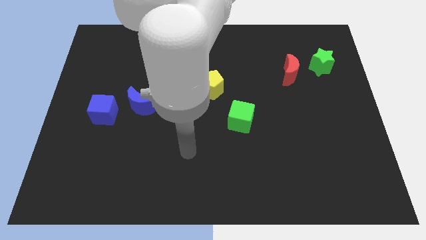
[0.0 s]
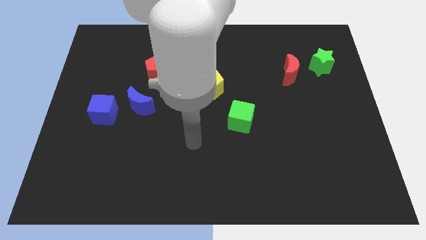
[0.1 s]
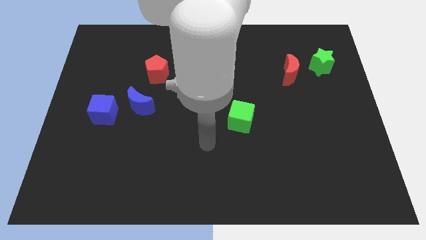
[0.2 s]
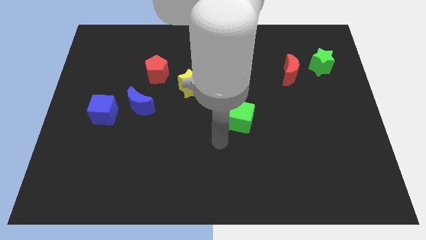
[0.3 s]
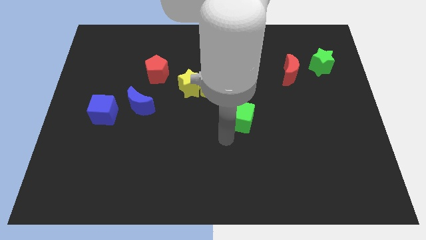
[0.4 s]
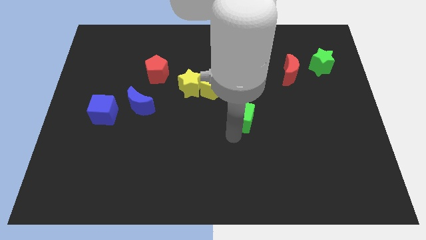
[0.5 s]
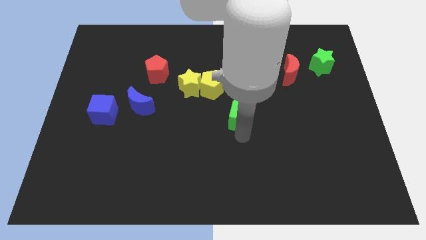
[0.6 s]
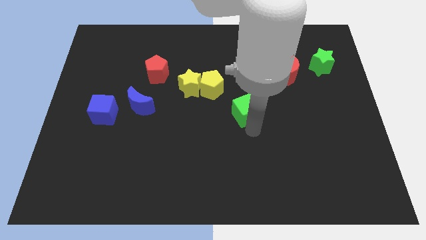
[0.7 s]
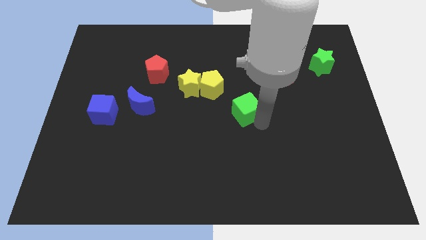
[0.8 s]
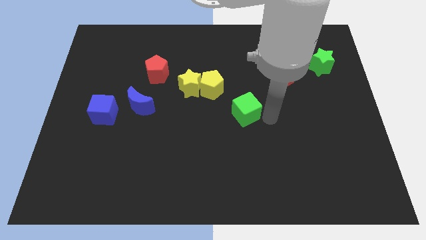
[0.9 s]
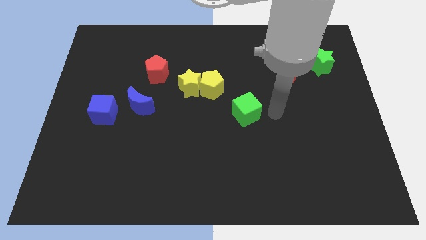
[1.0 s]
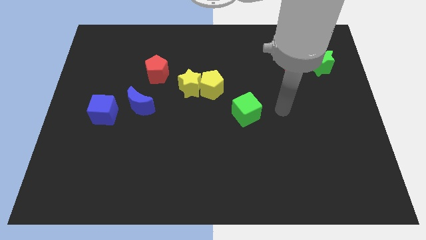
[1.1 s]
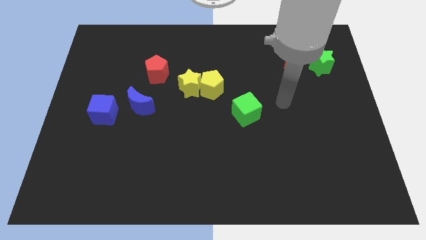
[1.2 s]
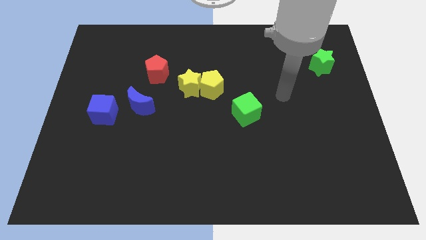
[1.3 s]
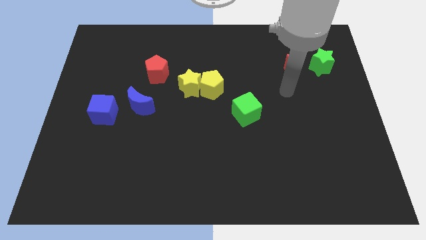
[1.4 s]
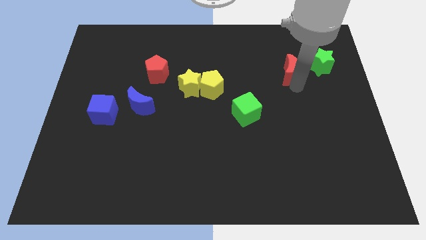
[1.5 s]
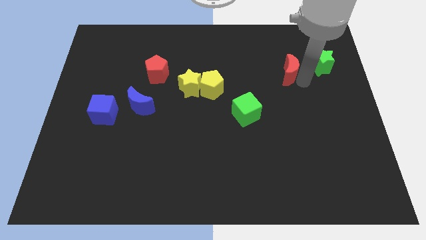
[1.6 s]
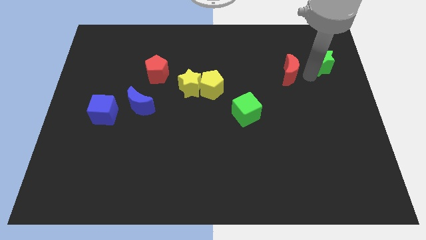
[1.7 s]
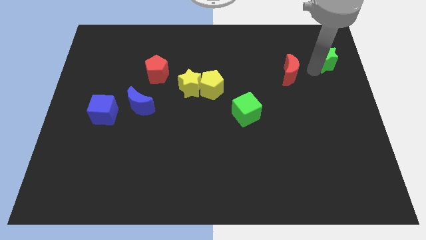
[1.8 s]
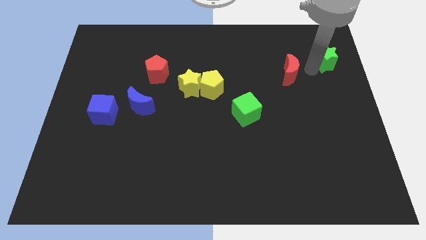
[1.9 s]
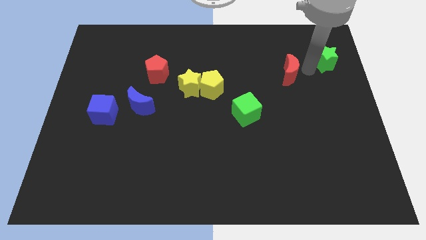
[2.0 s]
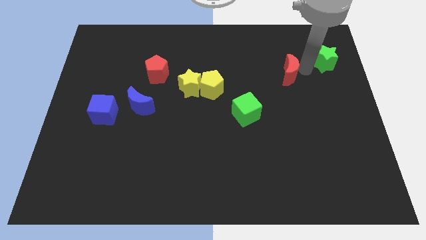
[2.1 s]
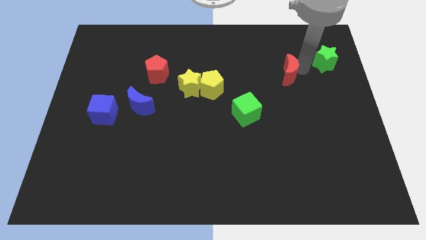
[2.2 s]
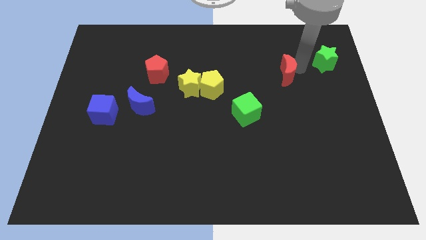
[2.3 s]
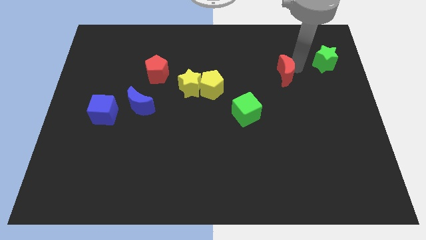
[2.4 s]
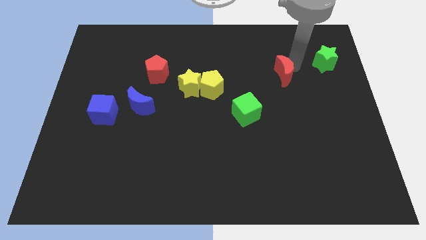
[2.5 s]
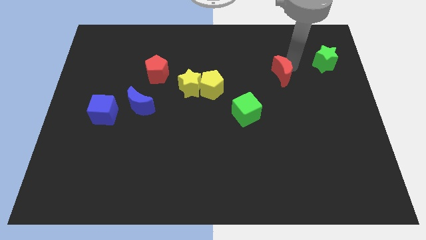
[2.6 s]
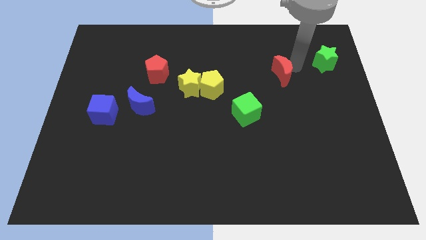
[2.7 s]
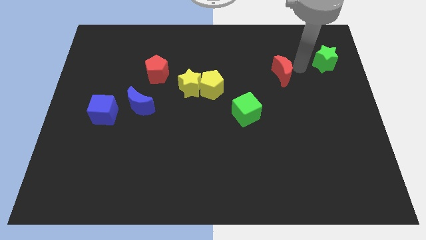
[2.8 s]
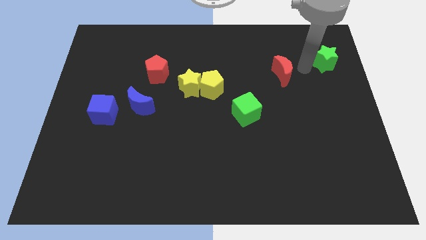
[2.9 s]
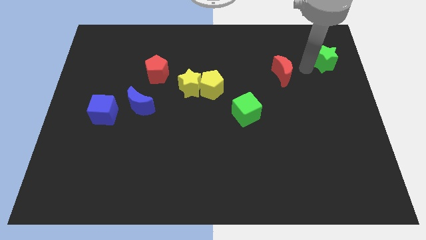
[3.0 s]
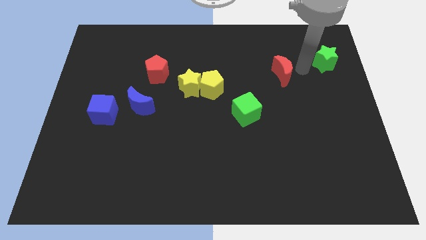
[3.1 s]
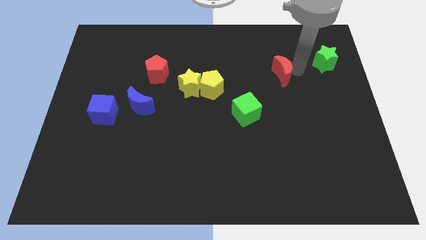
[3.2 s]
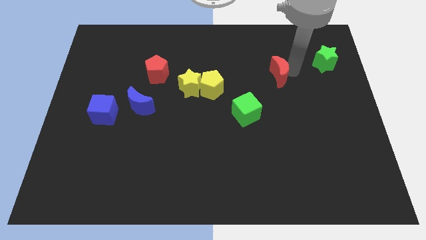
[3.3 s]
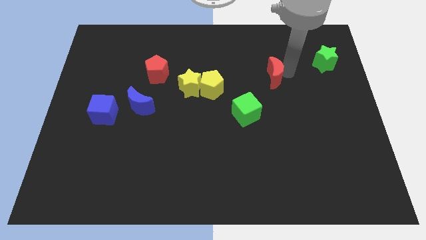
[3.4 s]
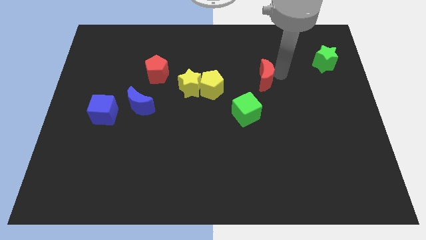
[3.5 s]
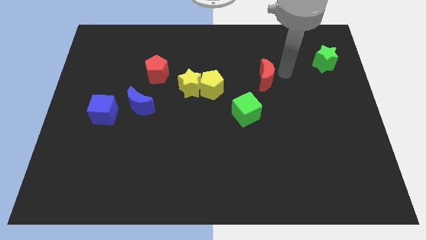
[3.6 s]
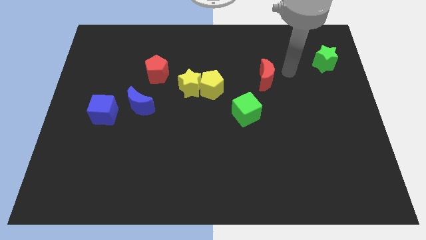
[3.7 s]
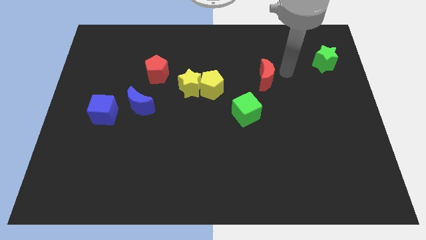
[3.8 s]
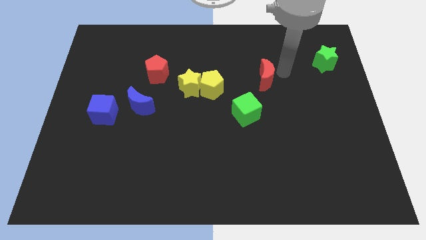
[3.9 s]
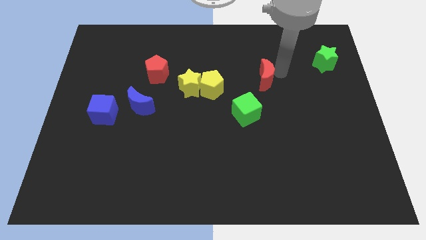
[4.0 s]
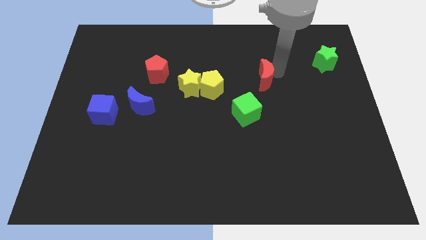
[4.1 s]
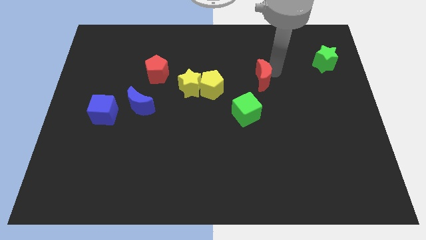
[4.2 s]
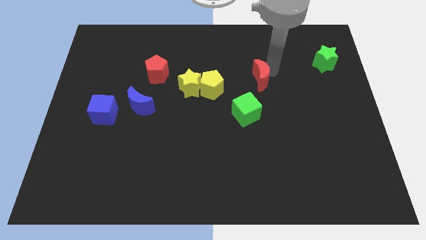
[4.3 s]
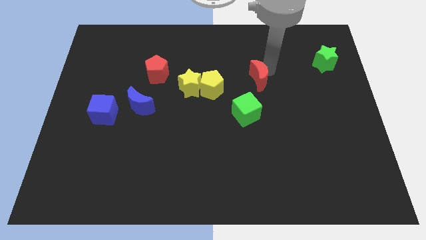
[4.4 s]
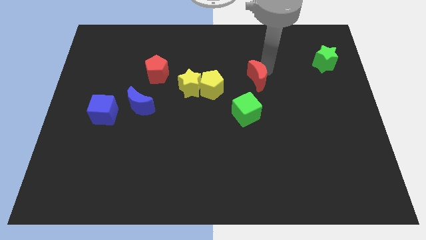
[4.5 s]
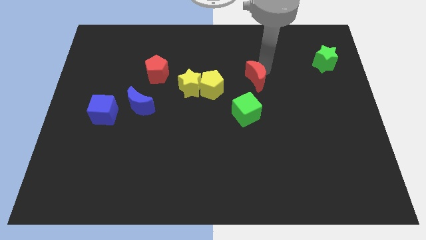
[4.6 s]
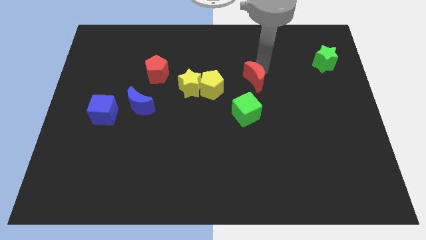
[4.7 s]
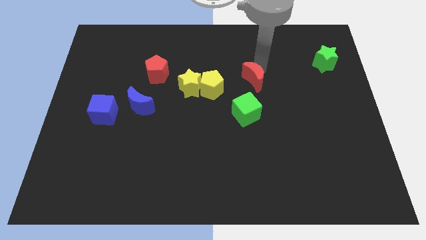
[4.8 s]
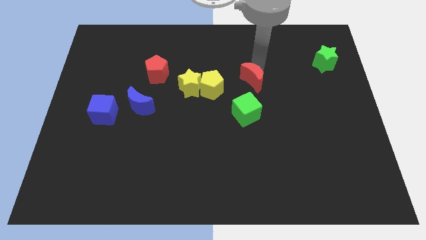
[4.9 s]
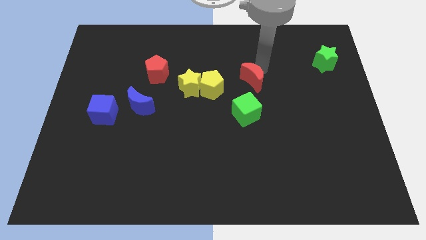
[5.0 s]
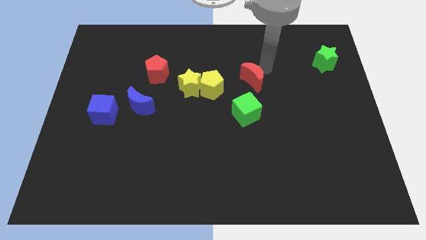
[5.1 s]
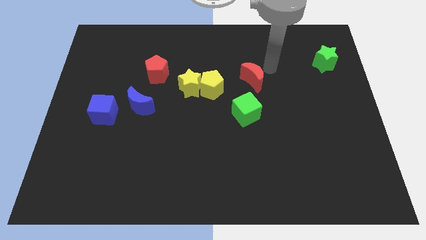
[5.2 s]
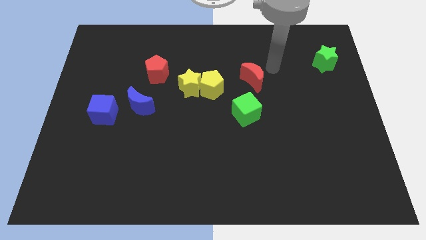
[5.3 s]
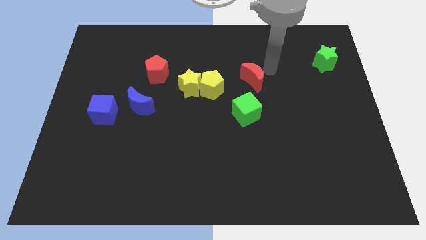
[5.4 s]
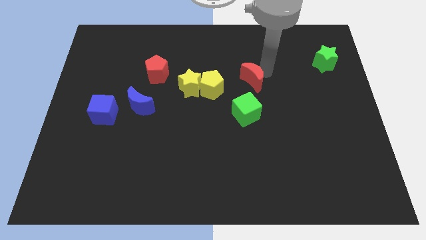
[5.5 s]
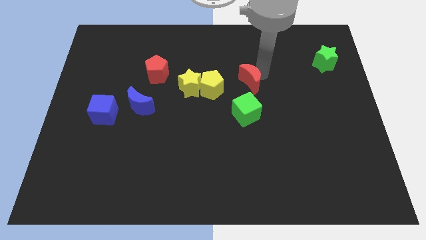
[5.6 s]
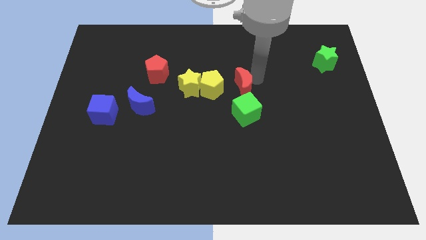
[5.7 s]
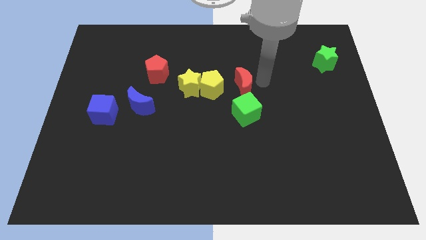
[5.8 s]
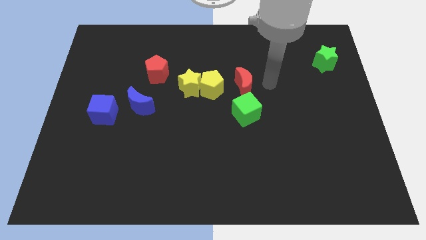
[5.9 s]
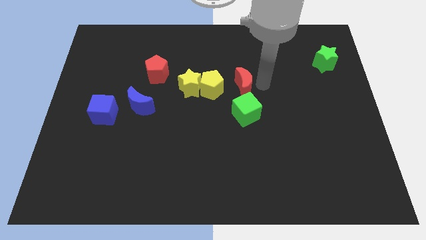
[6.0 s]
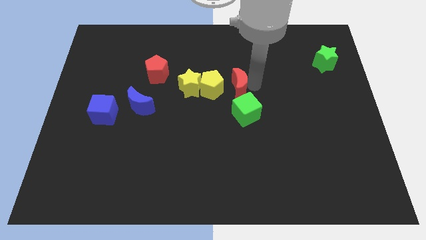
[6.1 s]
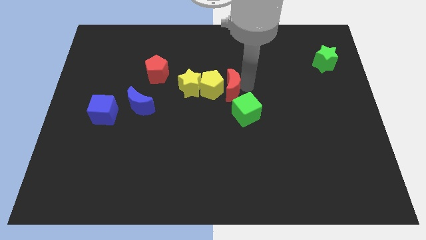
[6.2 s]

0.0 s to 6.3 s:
put the red moon towards the yellow pentagon

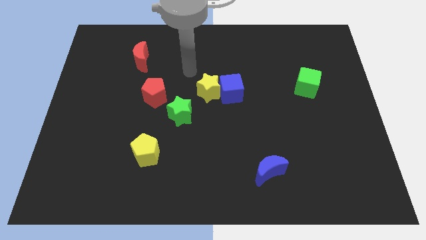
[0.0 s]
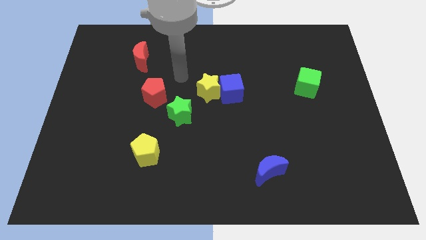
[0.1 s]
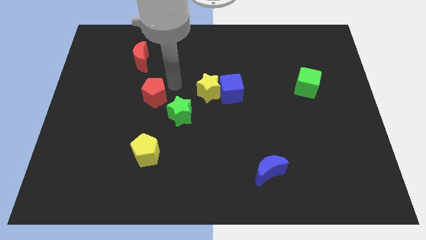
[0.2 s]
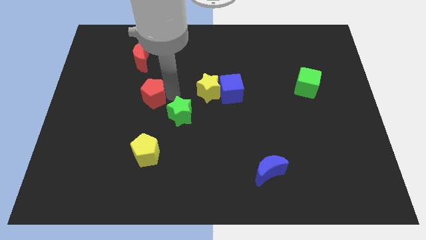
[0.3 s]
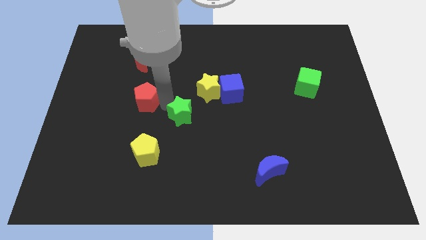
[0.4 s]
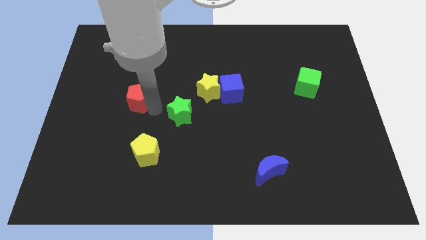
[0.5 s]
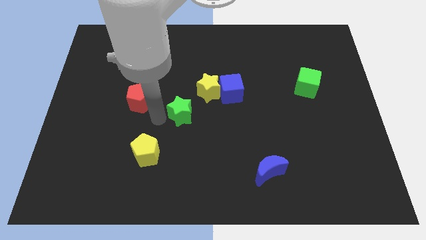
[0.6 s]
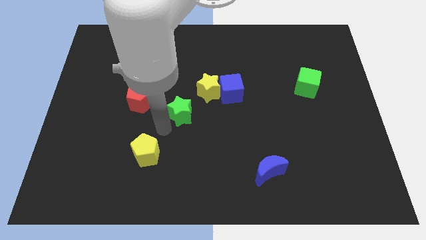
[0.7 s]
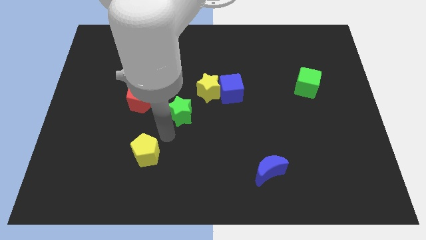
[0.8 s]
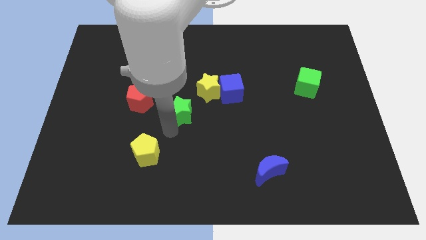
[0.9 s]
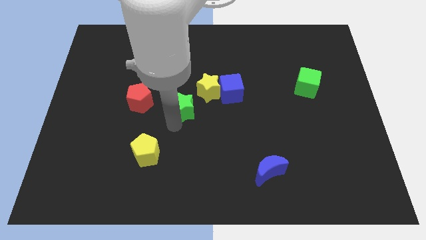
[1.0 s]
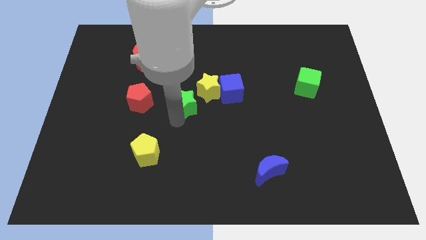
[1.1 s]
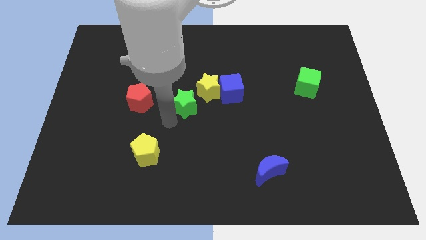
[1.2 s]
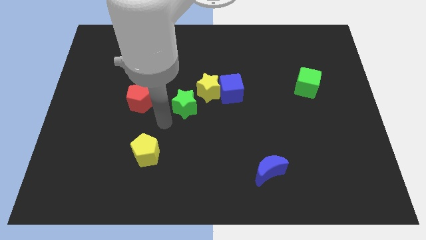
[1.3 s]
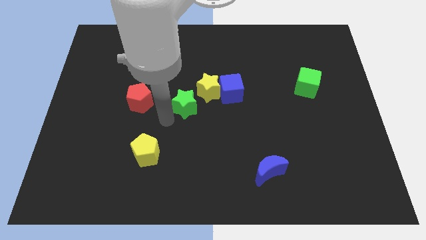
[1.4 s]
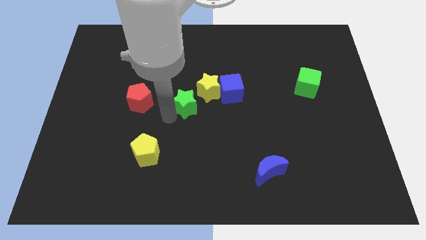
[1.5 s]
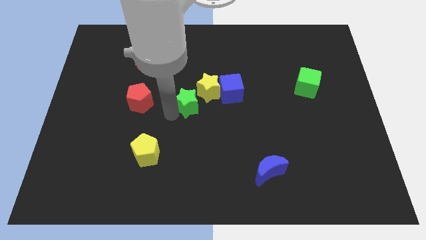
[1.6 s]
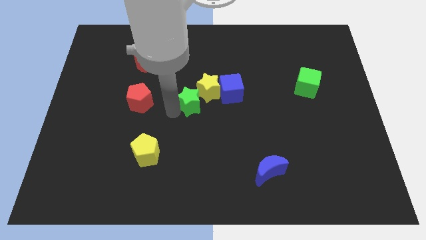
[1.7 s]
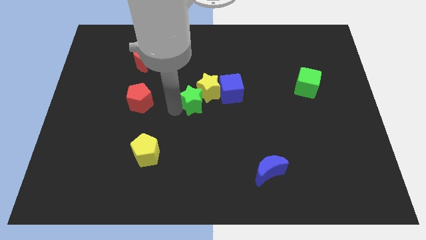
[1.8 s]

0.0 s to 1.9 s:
put the green star next to the yellow star
